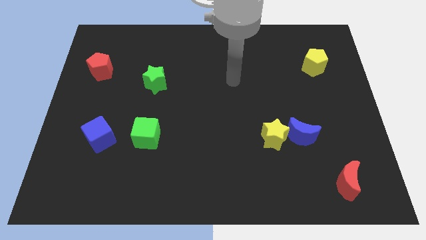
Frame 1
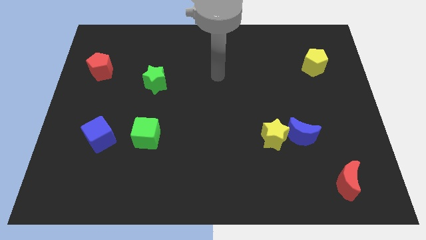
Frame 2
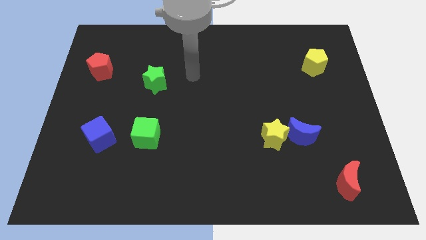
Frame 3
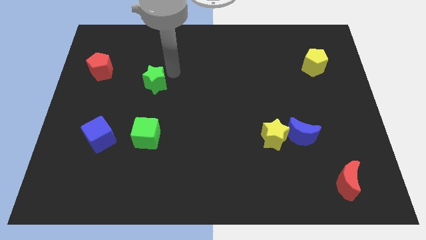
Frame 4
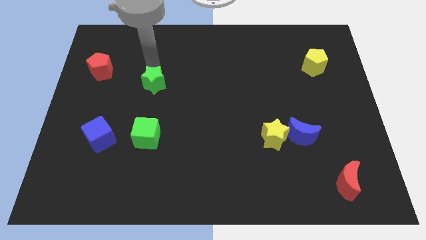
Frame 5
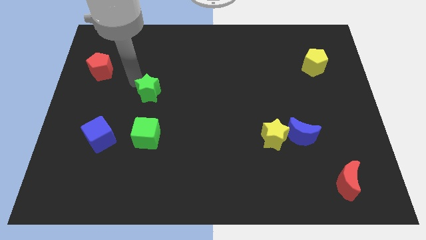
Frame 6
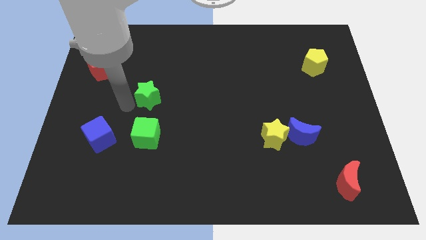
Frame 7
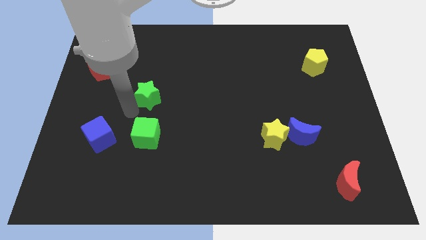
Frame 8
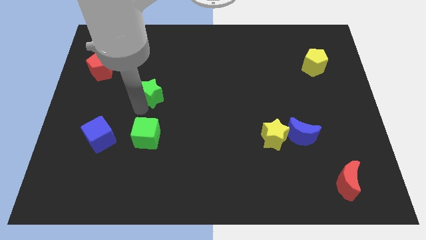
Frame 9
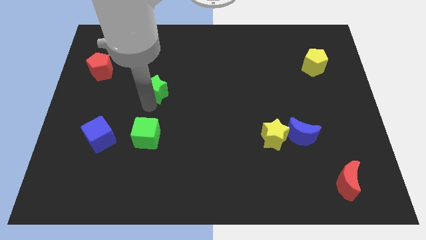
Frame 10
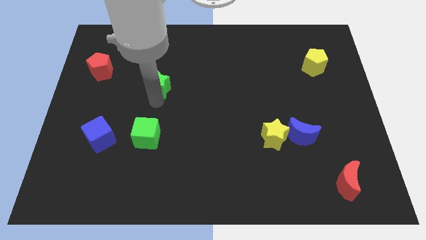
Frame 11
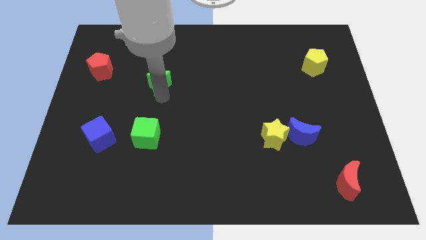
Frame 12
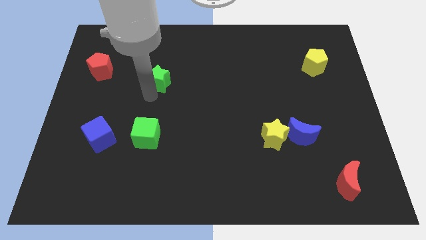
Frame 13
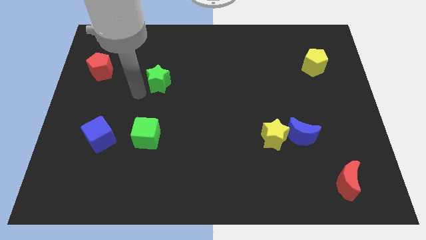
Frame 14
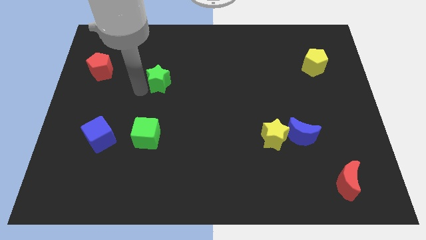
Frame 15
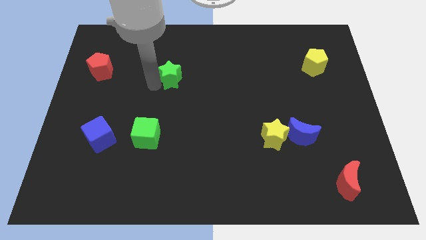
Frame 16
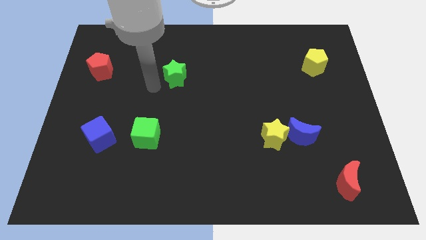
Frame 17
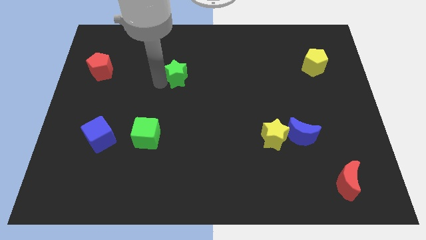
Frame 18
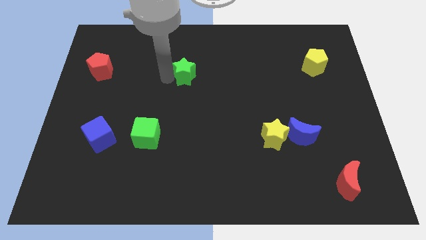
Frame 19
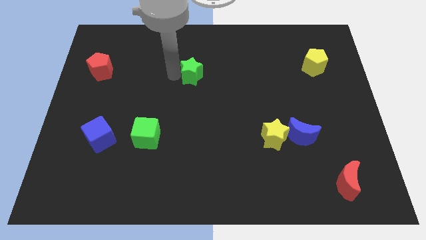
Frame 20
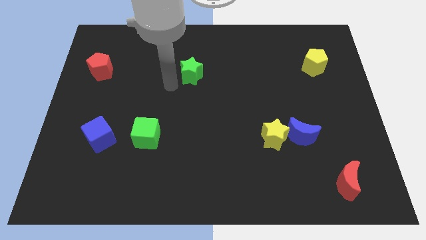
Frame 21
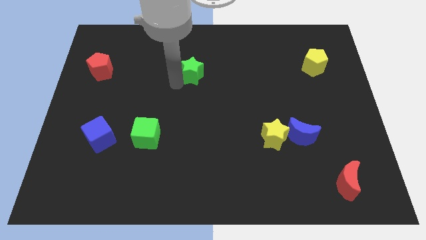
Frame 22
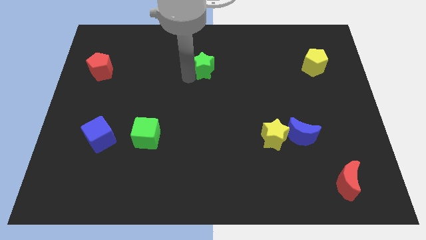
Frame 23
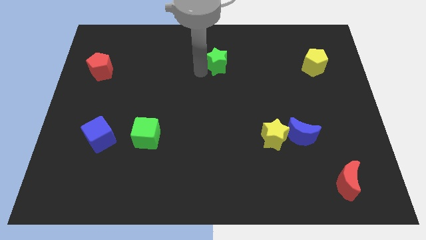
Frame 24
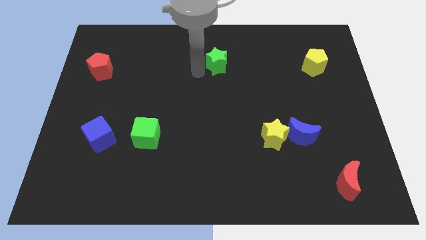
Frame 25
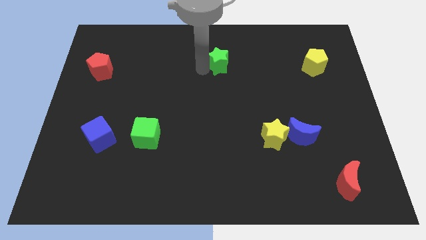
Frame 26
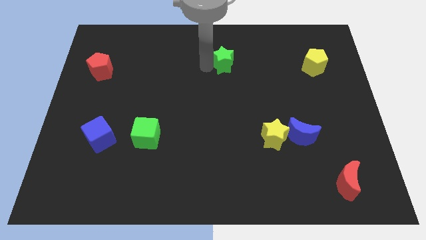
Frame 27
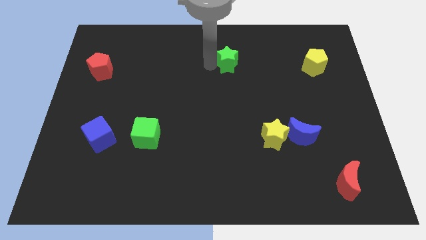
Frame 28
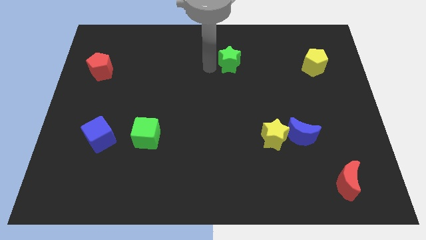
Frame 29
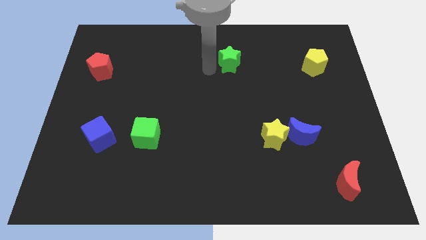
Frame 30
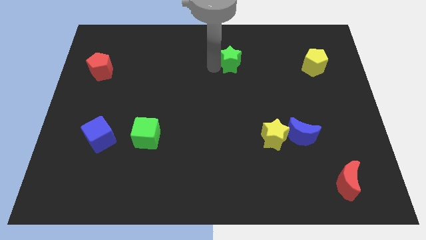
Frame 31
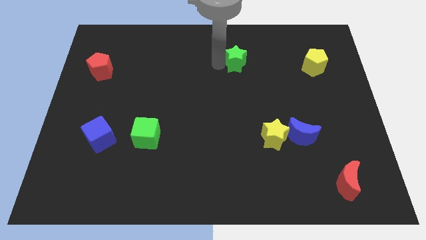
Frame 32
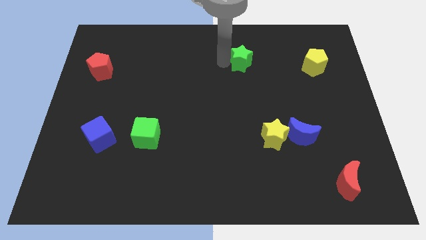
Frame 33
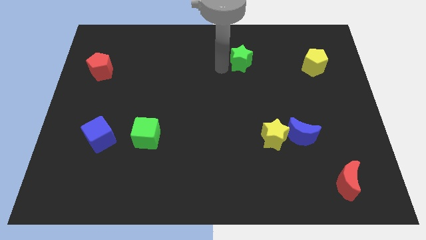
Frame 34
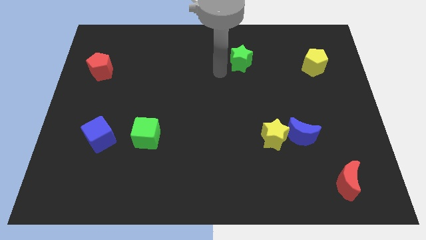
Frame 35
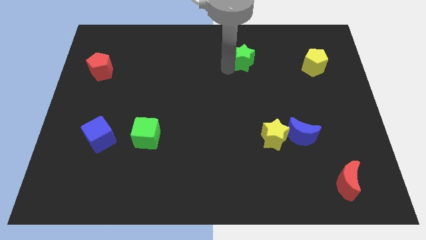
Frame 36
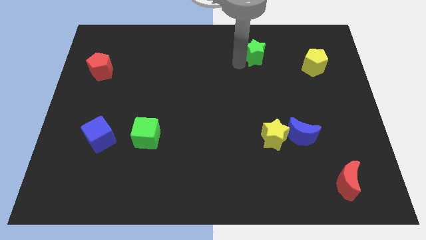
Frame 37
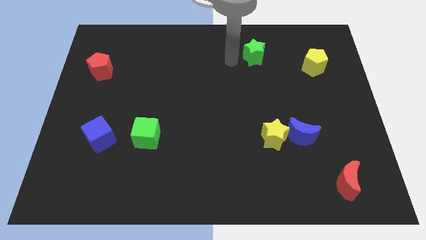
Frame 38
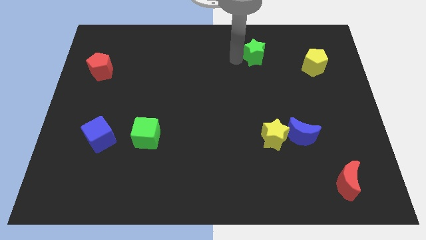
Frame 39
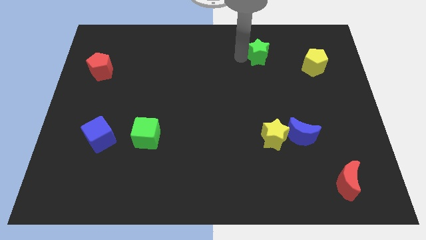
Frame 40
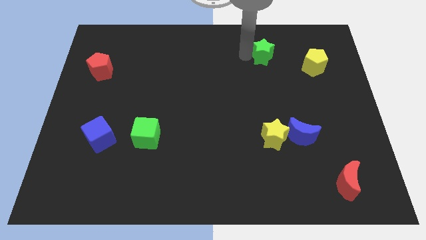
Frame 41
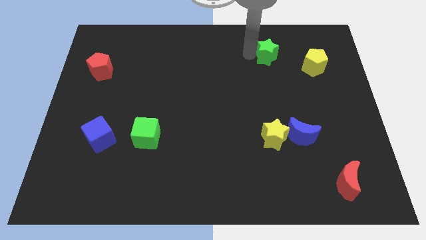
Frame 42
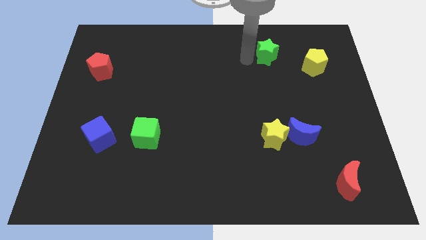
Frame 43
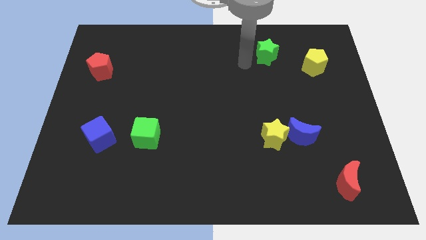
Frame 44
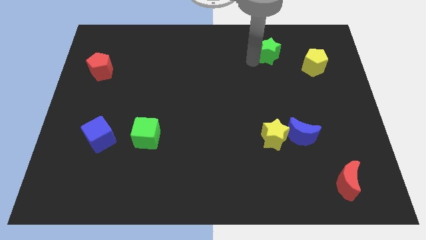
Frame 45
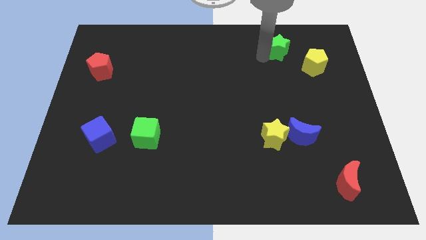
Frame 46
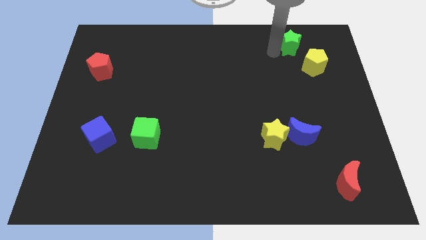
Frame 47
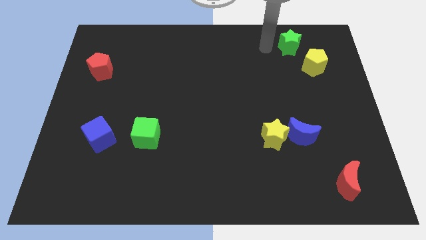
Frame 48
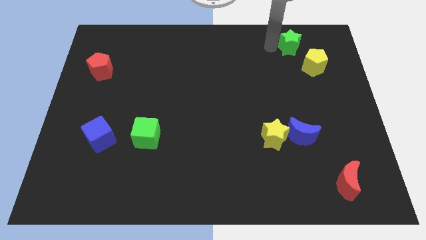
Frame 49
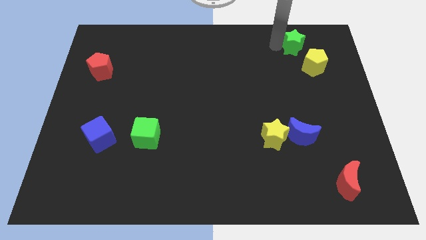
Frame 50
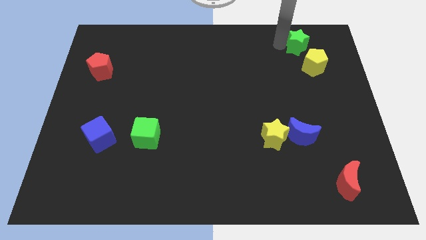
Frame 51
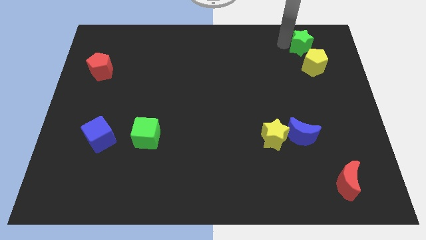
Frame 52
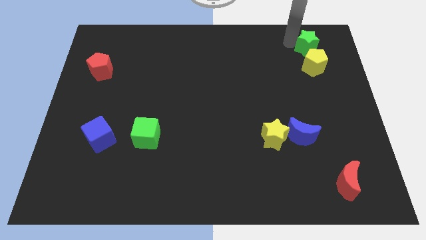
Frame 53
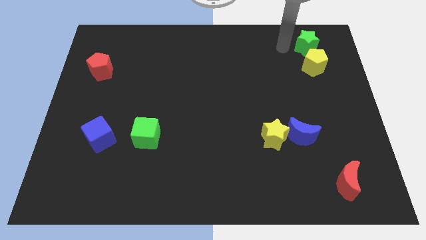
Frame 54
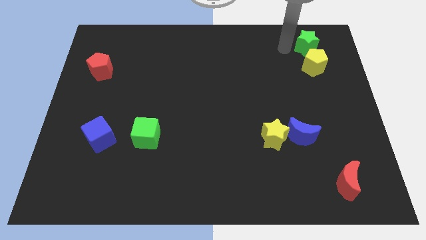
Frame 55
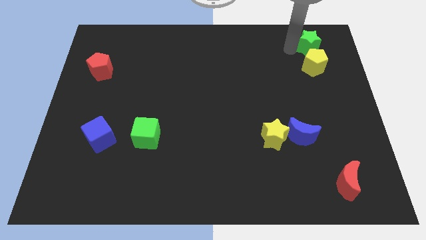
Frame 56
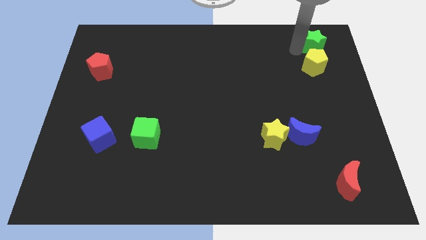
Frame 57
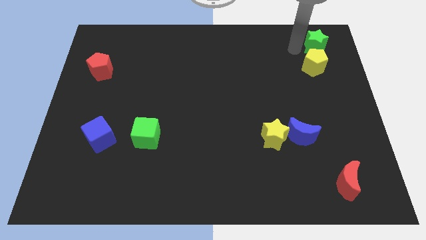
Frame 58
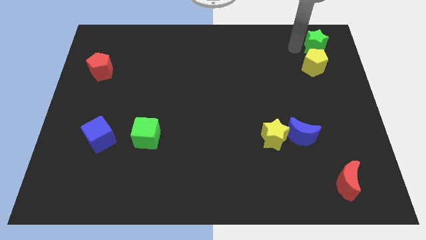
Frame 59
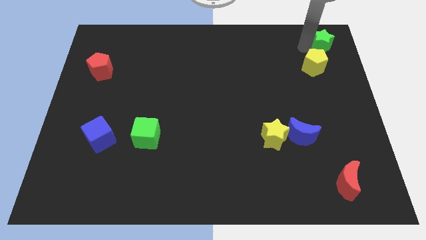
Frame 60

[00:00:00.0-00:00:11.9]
push the green star to the upper right corner

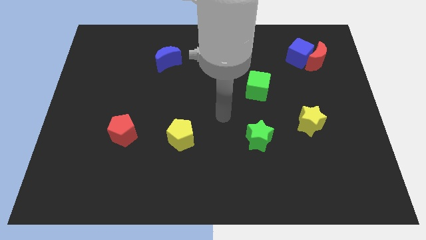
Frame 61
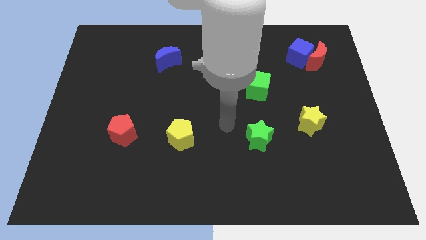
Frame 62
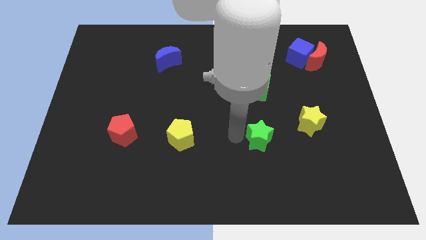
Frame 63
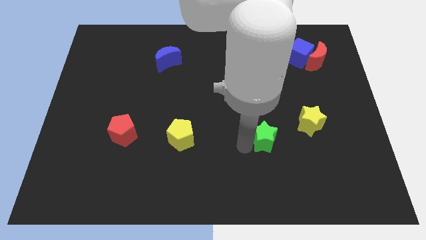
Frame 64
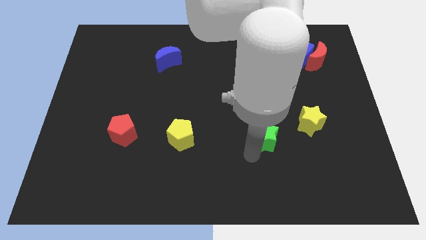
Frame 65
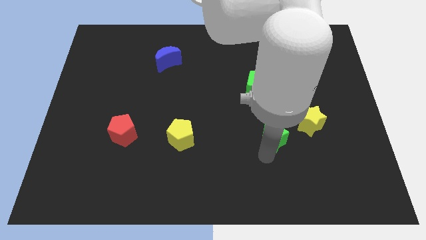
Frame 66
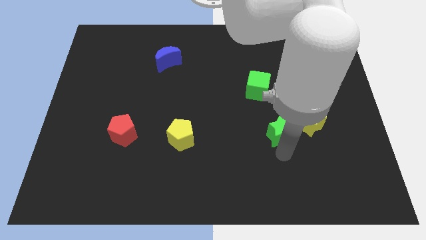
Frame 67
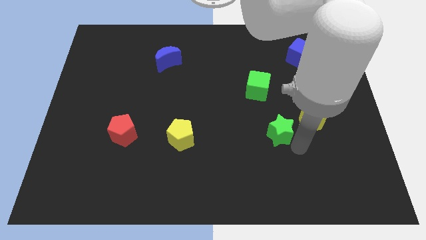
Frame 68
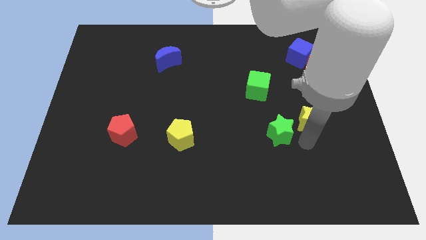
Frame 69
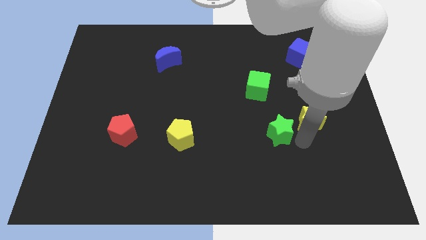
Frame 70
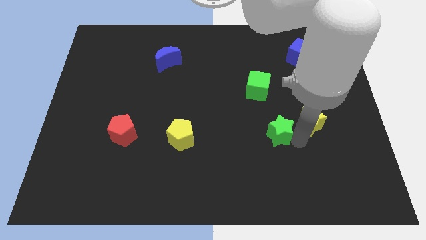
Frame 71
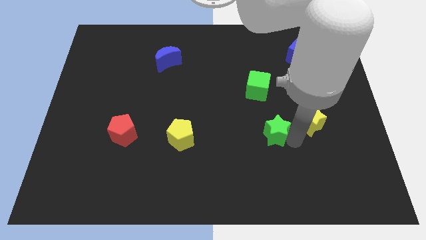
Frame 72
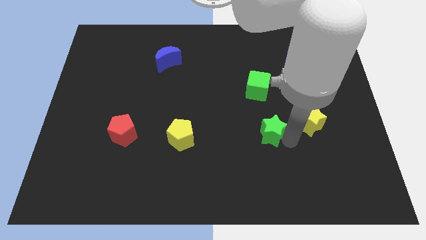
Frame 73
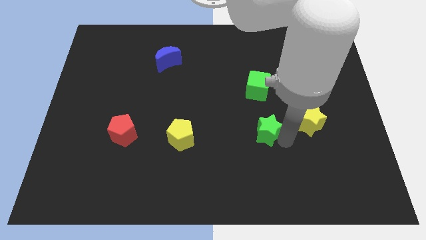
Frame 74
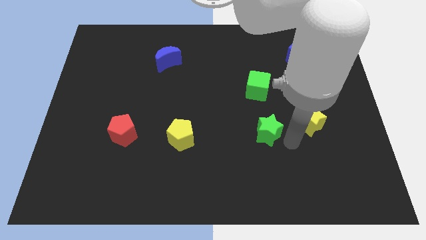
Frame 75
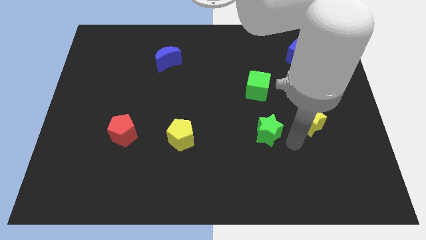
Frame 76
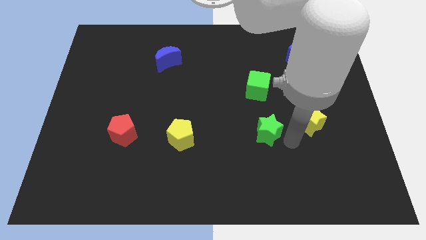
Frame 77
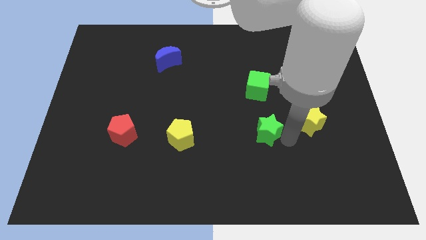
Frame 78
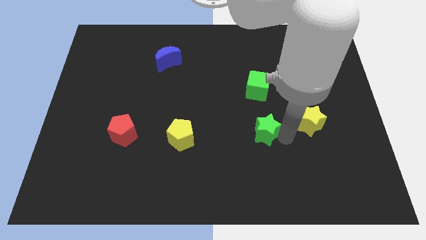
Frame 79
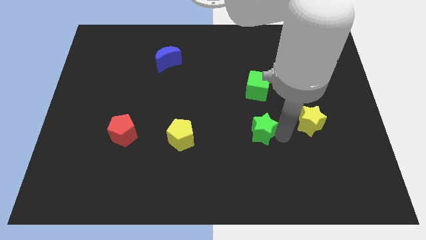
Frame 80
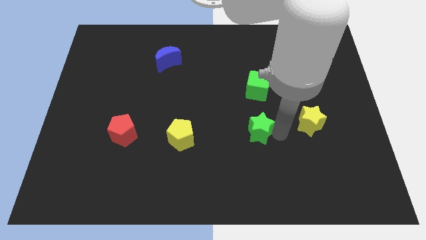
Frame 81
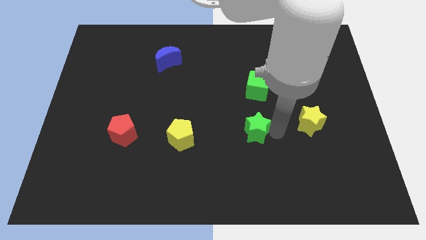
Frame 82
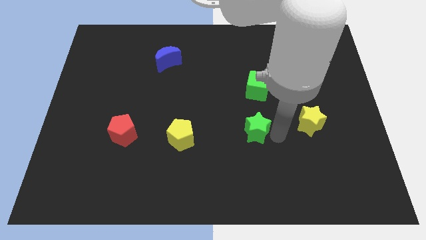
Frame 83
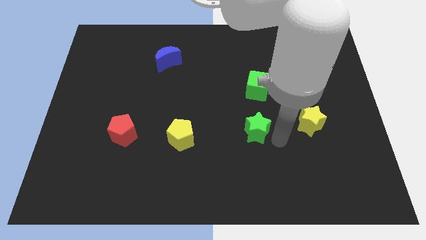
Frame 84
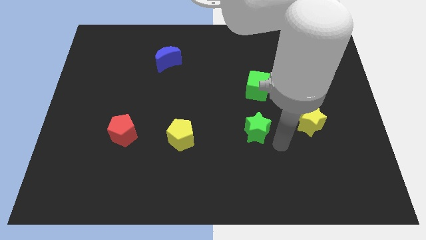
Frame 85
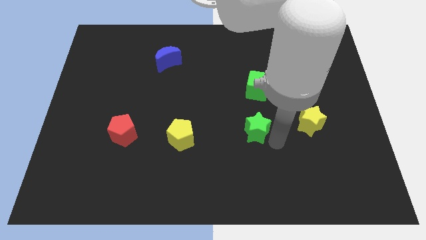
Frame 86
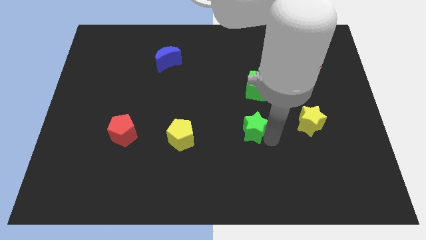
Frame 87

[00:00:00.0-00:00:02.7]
slide the green star to the center of the board
